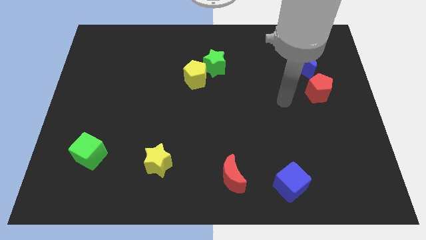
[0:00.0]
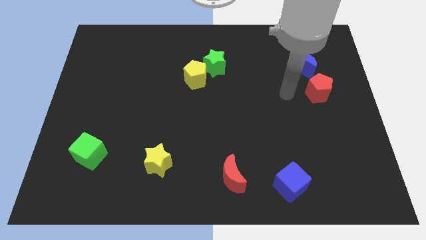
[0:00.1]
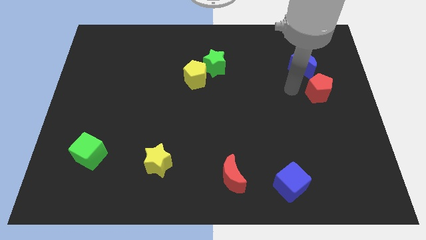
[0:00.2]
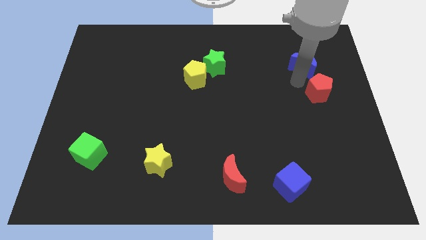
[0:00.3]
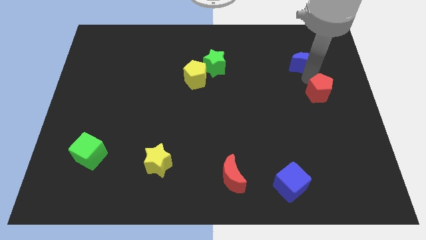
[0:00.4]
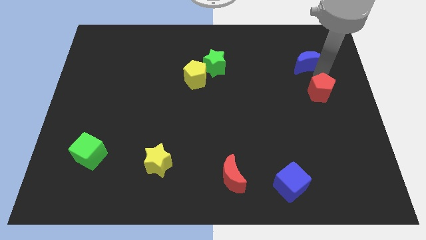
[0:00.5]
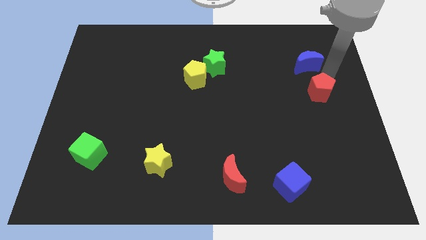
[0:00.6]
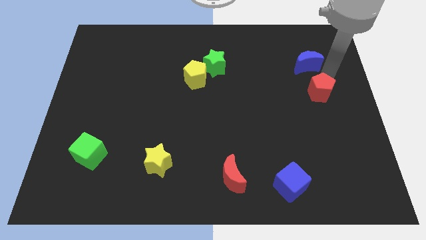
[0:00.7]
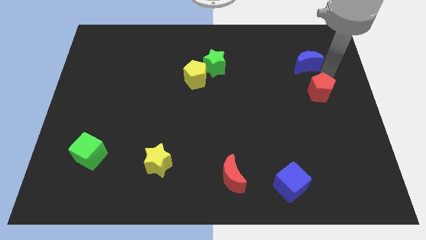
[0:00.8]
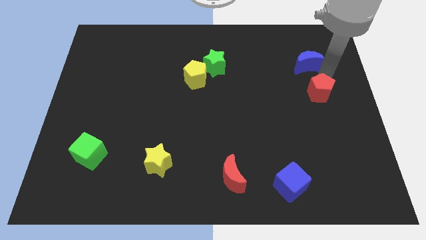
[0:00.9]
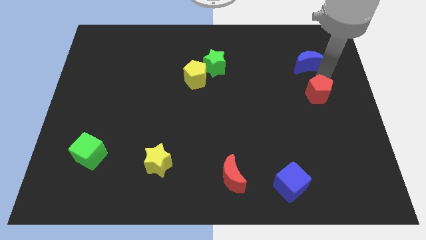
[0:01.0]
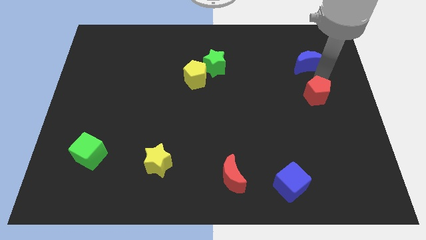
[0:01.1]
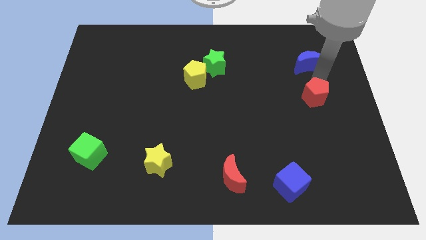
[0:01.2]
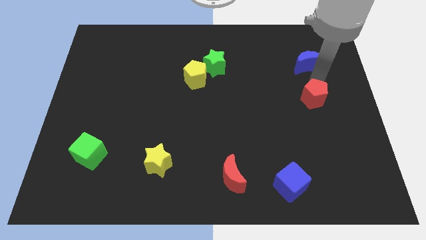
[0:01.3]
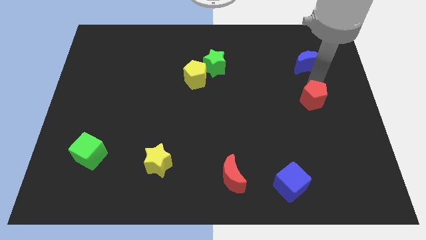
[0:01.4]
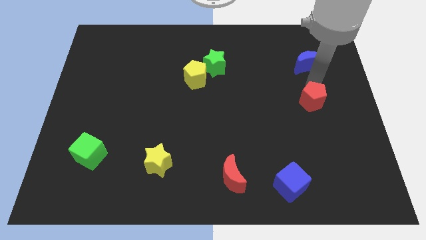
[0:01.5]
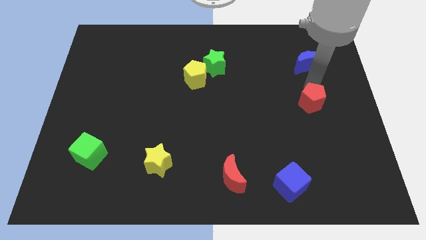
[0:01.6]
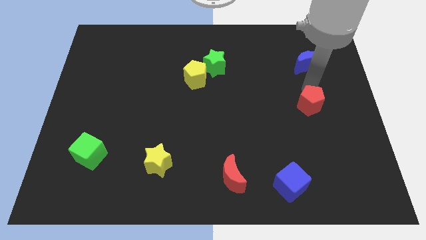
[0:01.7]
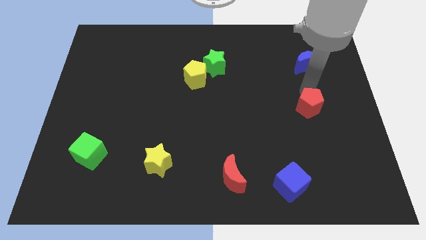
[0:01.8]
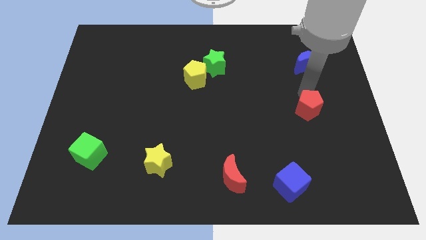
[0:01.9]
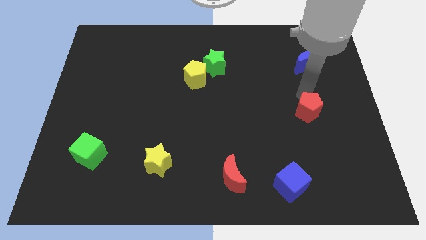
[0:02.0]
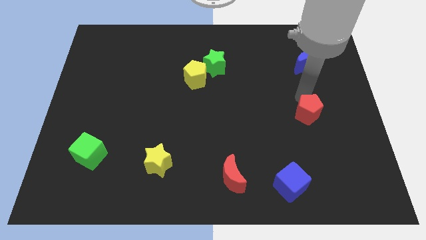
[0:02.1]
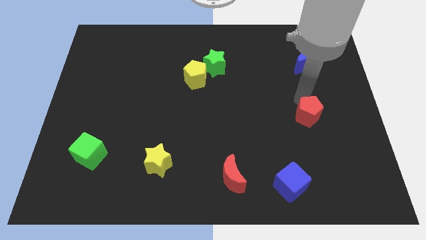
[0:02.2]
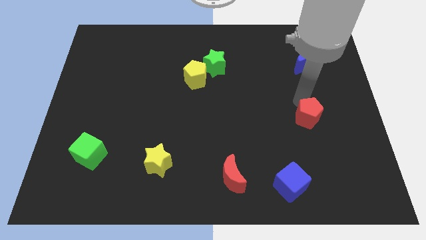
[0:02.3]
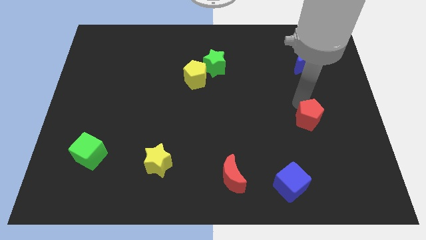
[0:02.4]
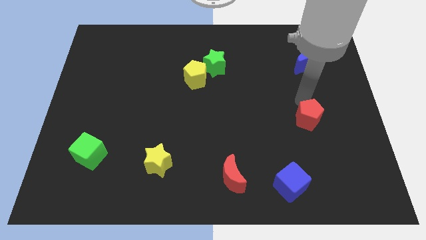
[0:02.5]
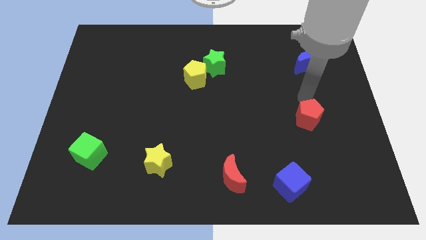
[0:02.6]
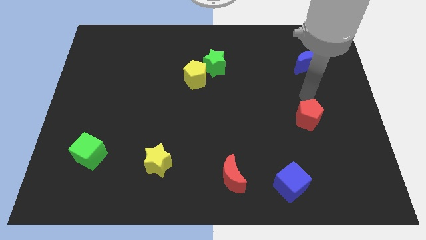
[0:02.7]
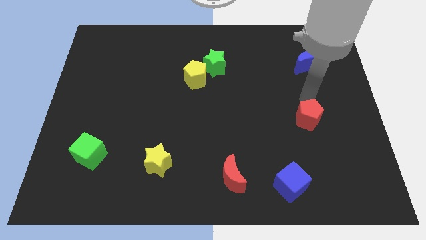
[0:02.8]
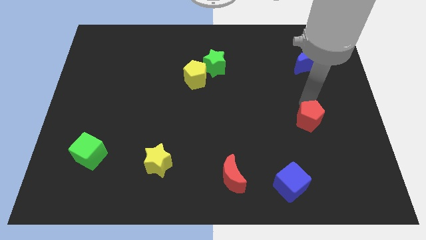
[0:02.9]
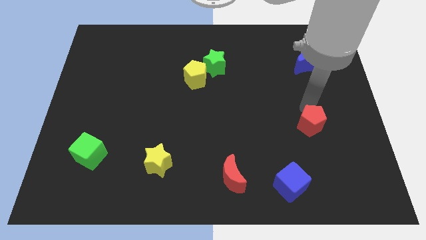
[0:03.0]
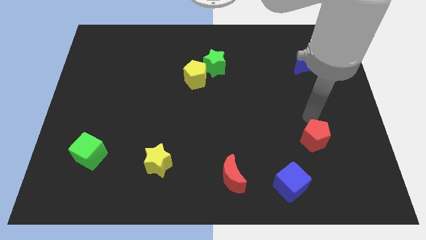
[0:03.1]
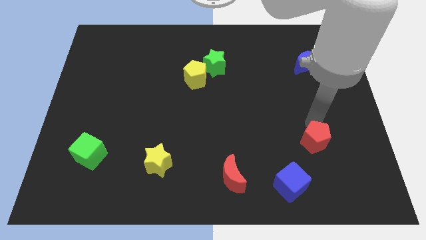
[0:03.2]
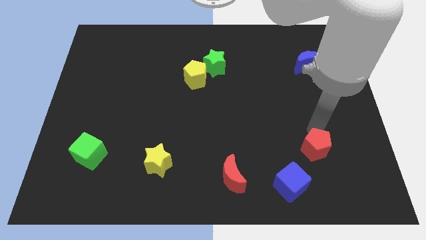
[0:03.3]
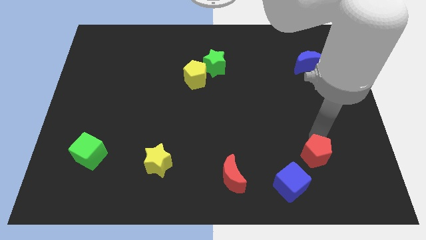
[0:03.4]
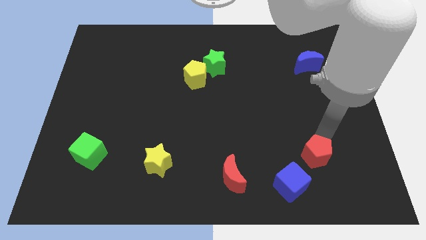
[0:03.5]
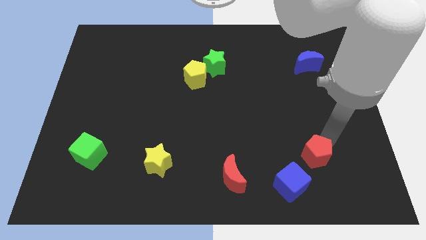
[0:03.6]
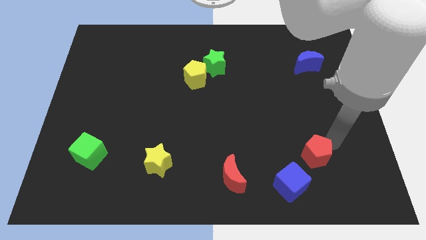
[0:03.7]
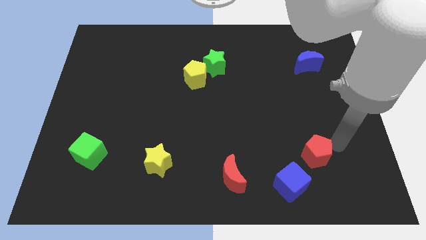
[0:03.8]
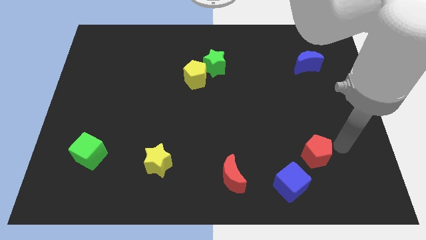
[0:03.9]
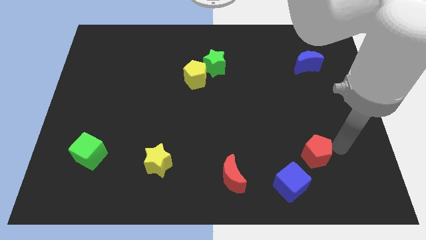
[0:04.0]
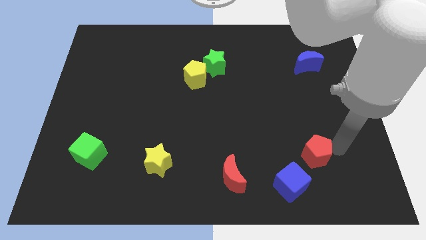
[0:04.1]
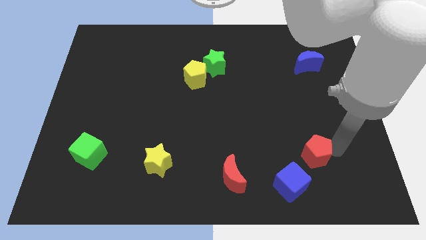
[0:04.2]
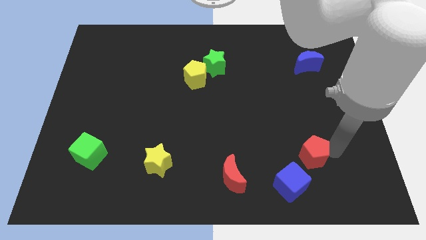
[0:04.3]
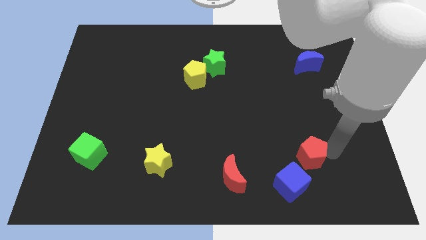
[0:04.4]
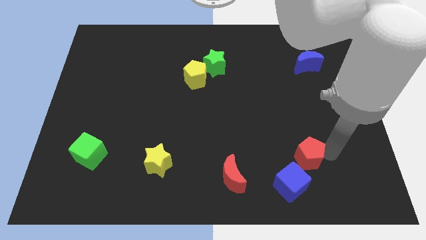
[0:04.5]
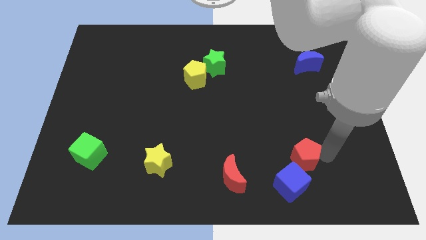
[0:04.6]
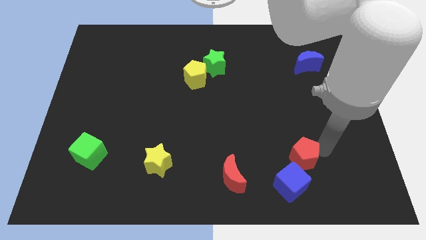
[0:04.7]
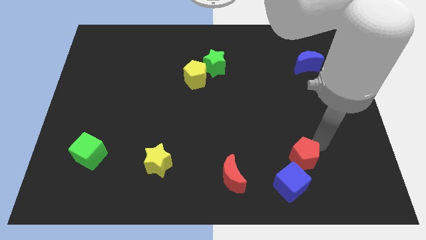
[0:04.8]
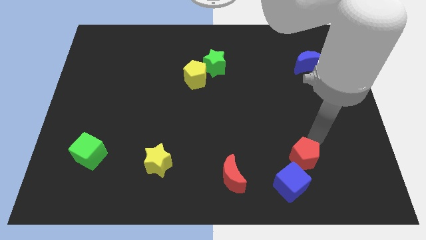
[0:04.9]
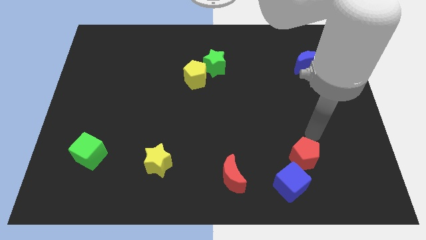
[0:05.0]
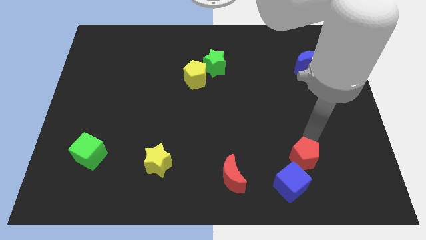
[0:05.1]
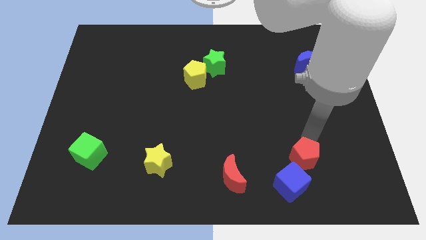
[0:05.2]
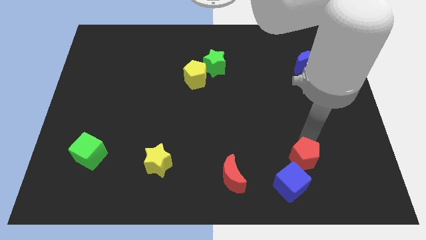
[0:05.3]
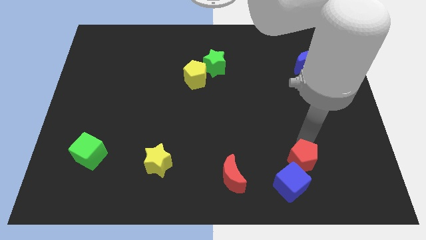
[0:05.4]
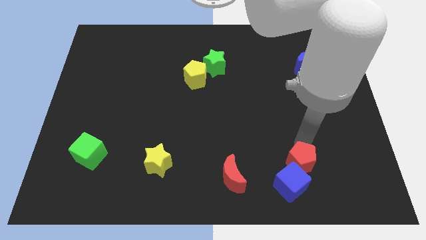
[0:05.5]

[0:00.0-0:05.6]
slide the red pentagon towards the blue cube

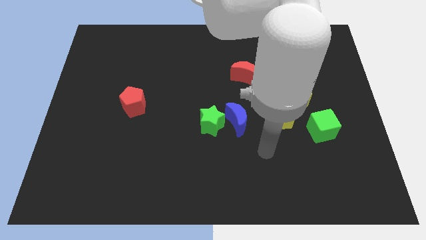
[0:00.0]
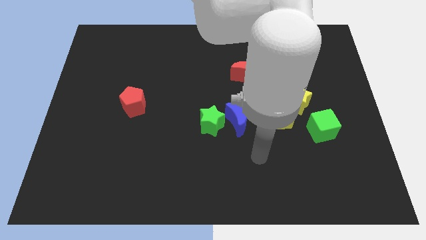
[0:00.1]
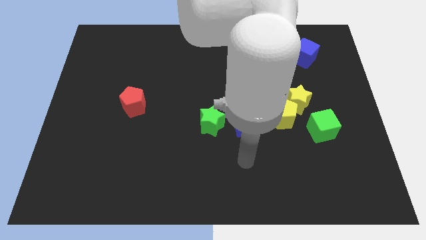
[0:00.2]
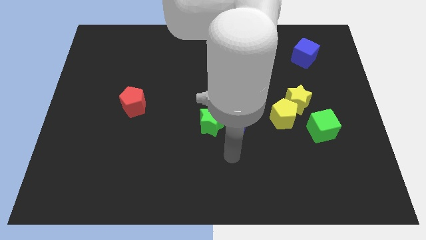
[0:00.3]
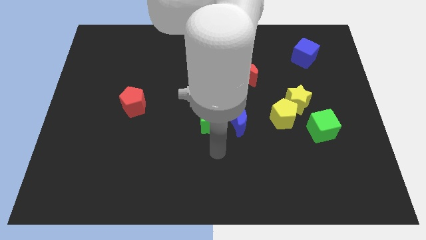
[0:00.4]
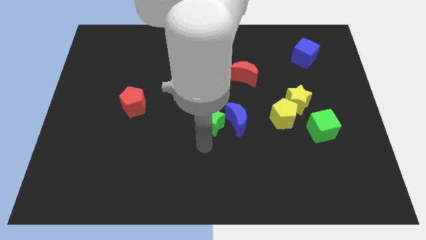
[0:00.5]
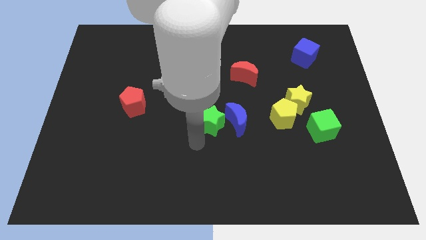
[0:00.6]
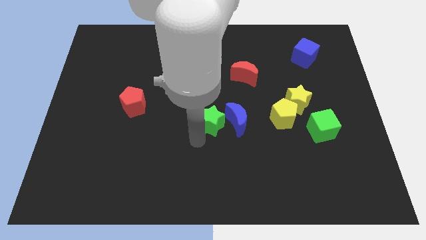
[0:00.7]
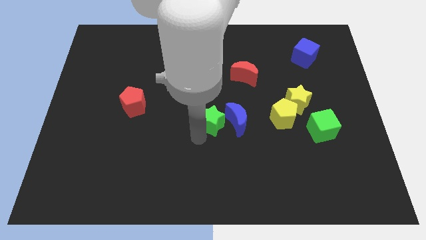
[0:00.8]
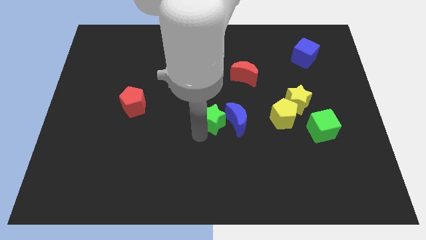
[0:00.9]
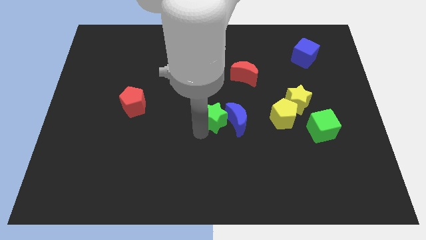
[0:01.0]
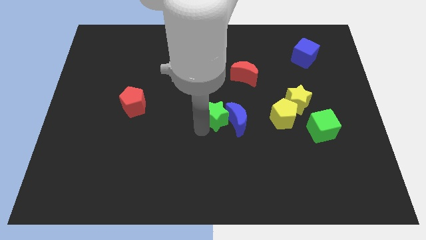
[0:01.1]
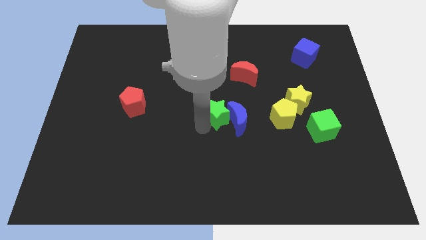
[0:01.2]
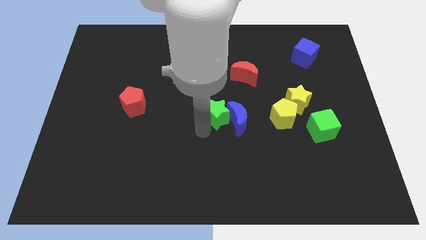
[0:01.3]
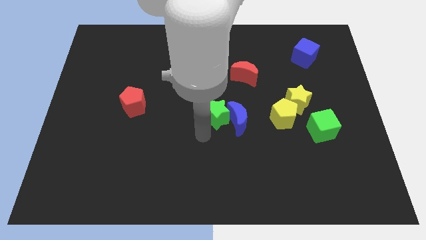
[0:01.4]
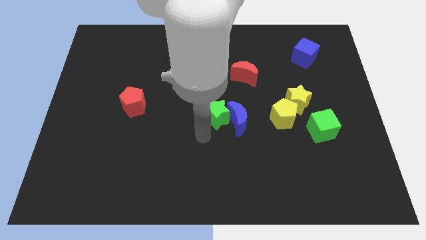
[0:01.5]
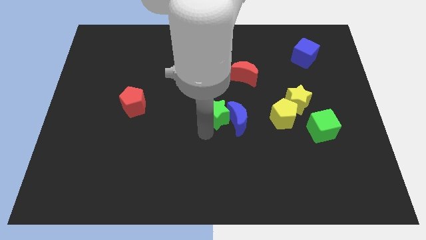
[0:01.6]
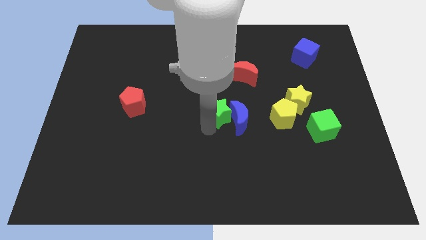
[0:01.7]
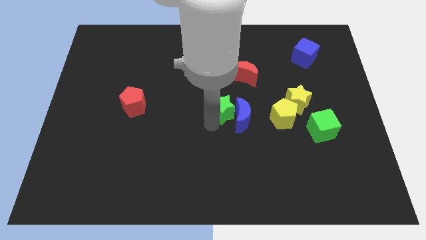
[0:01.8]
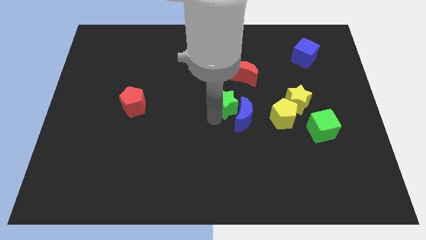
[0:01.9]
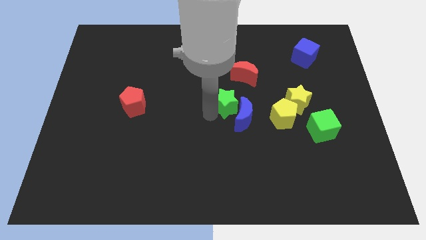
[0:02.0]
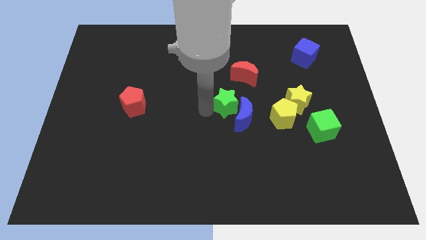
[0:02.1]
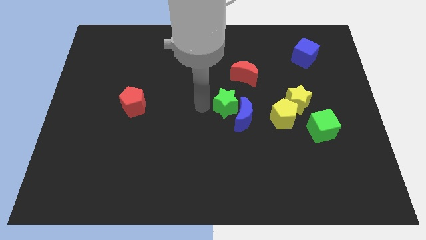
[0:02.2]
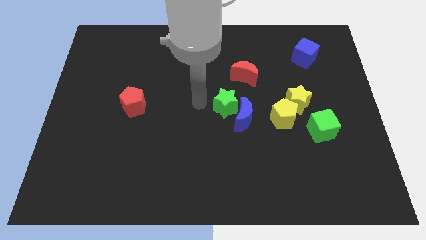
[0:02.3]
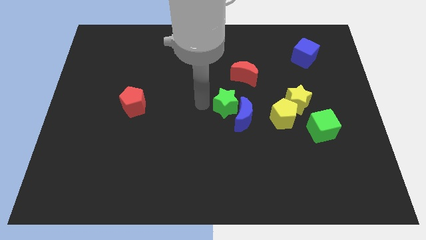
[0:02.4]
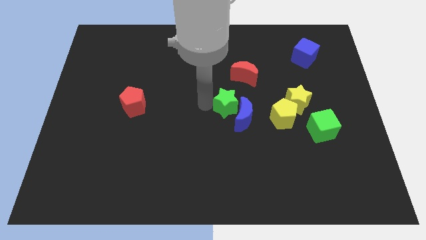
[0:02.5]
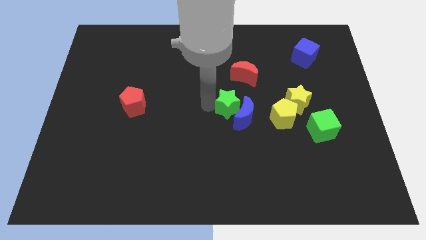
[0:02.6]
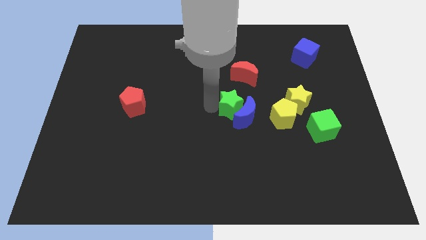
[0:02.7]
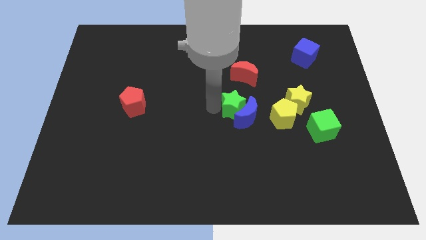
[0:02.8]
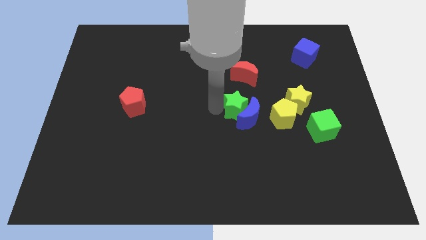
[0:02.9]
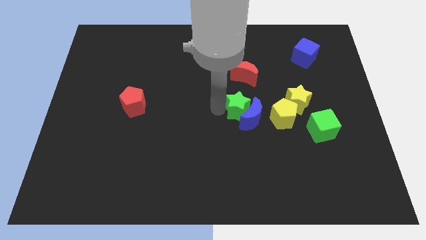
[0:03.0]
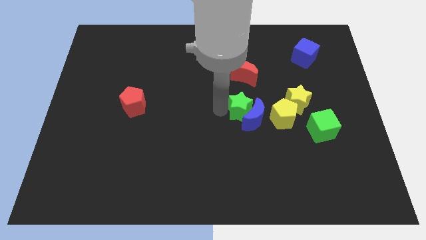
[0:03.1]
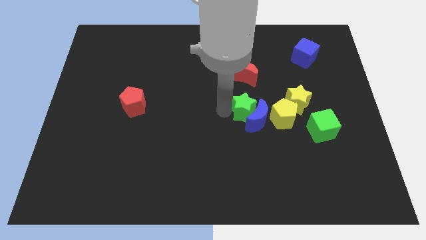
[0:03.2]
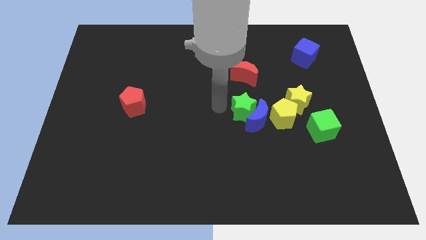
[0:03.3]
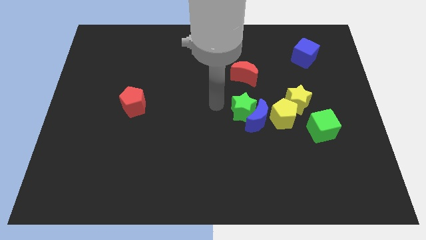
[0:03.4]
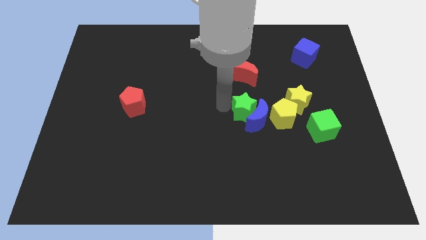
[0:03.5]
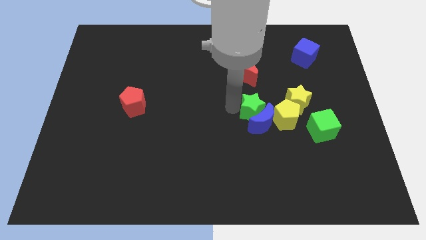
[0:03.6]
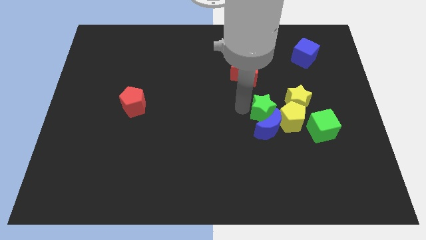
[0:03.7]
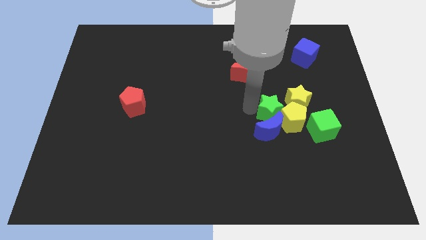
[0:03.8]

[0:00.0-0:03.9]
push the green star towards the yellow pentagon
